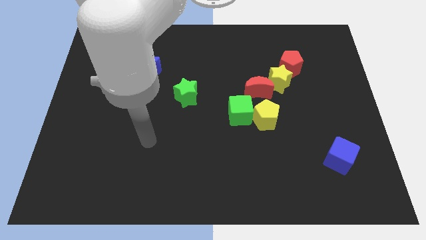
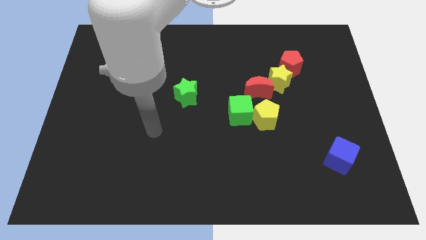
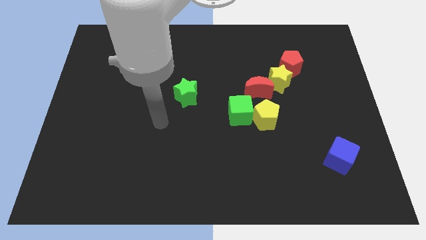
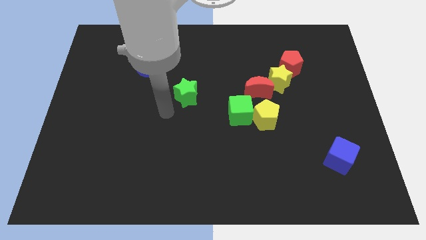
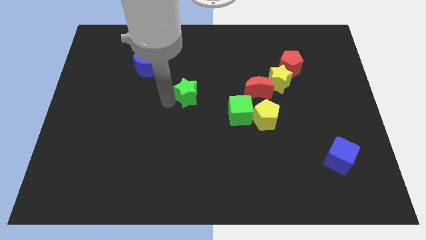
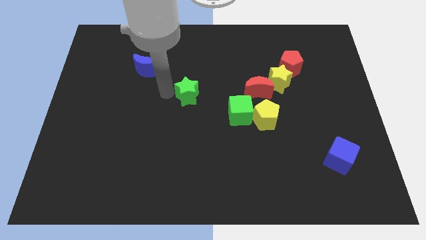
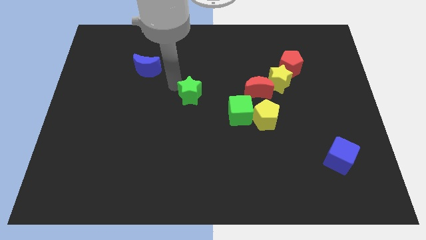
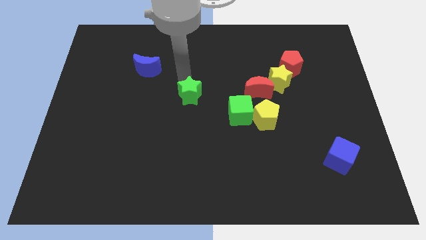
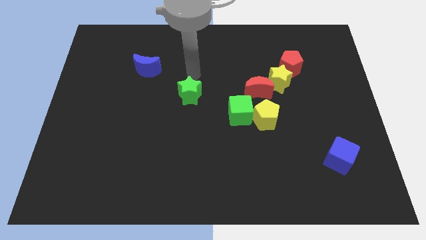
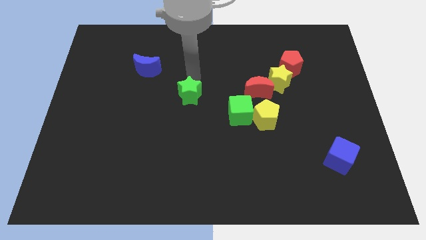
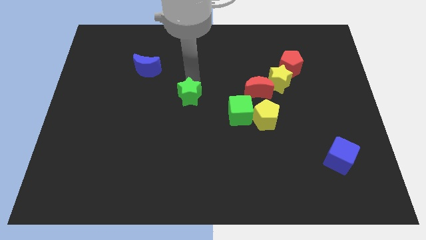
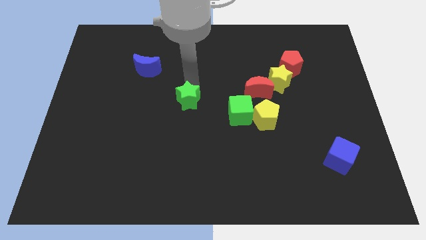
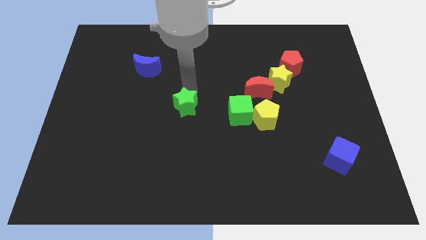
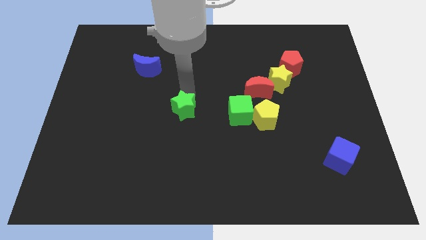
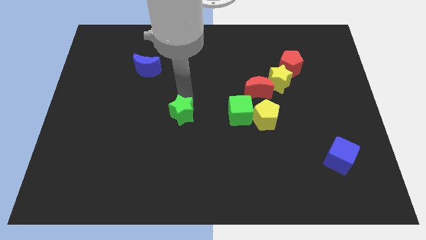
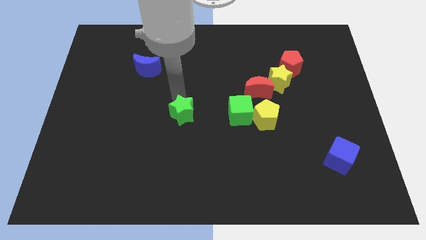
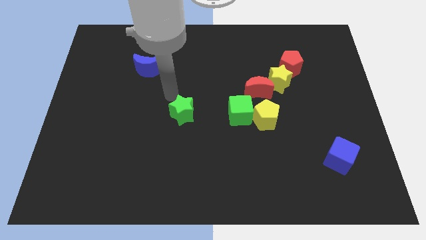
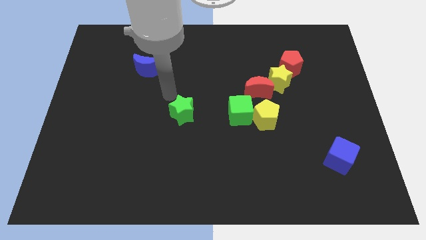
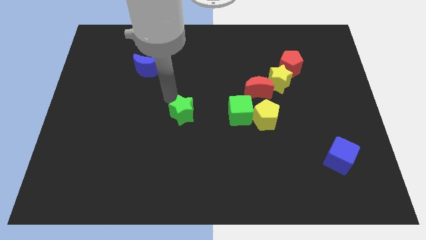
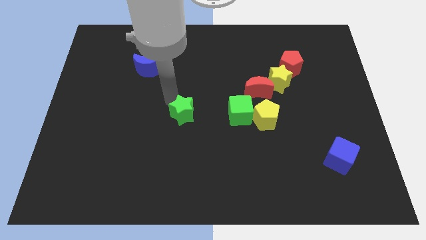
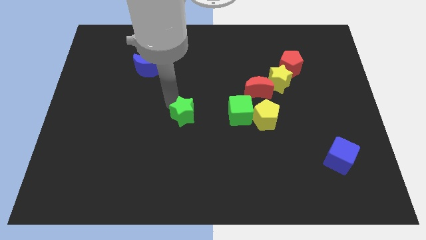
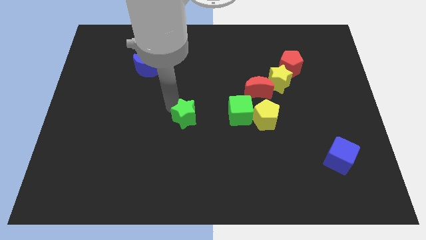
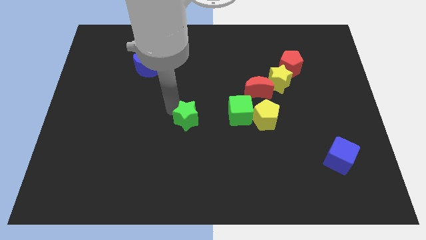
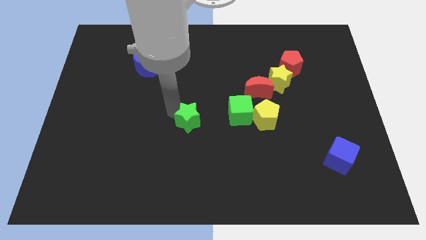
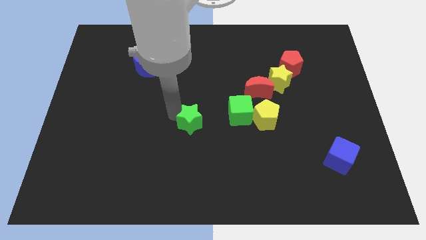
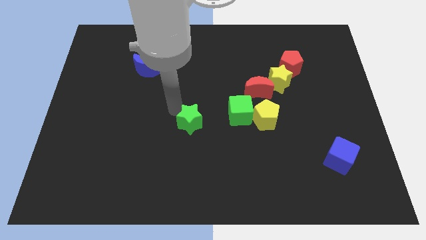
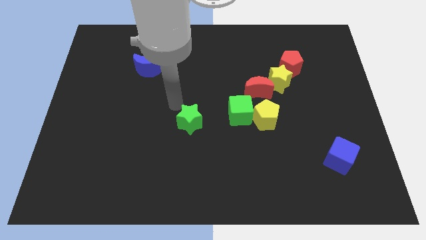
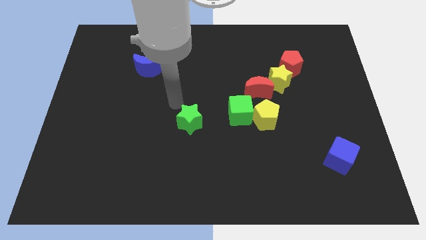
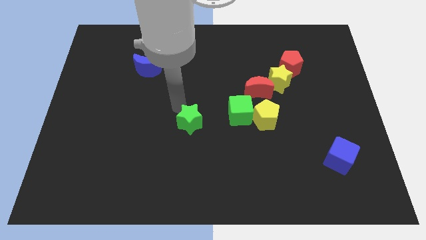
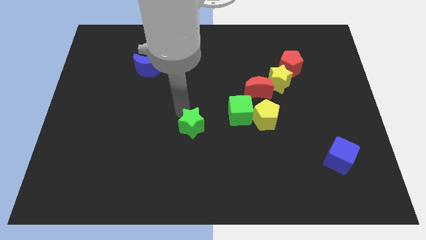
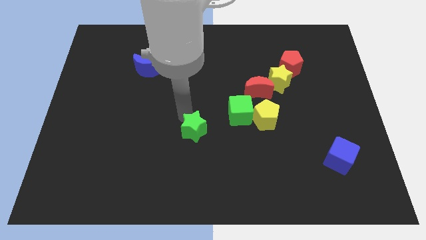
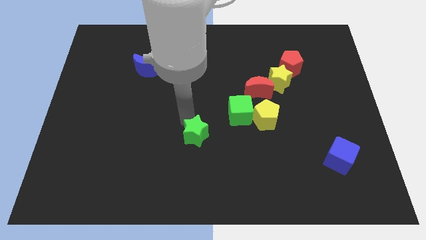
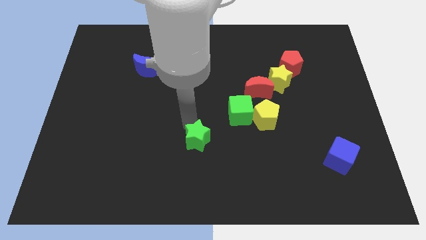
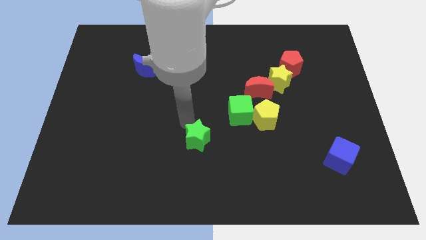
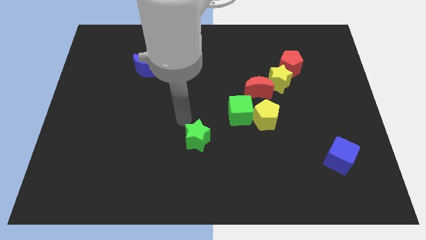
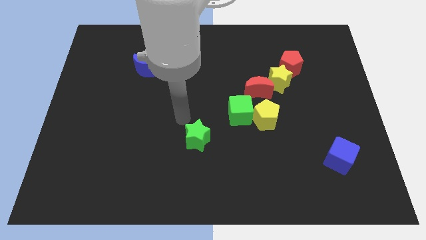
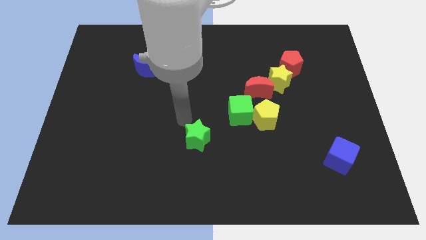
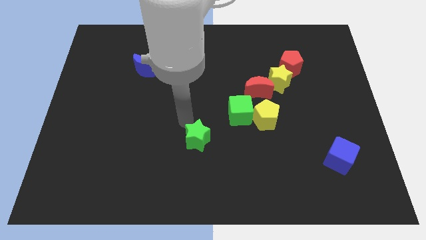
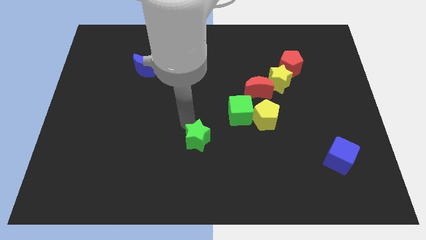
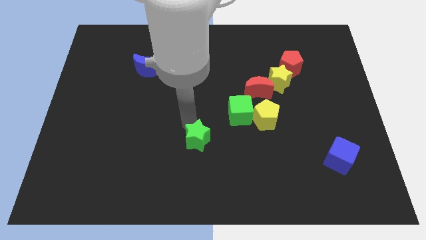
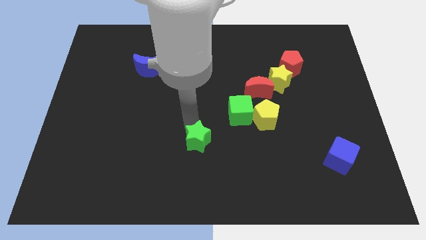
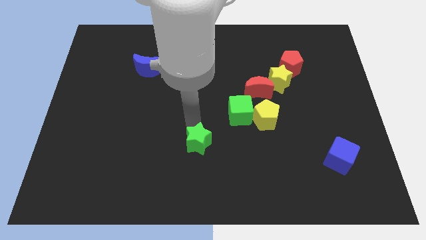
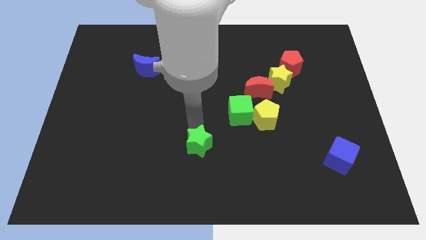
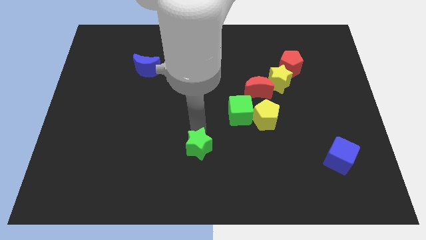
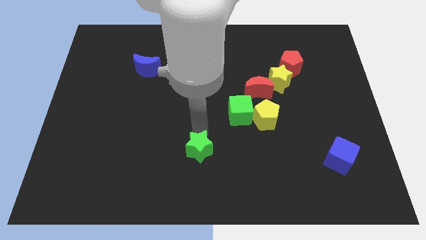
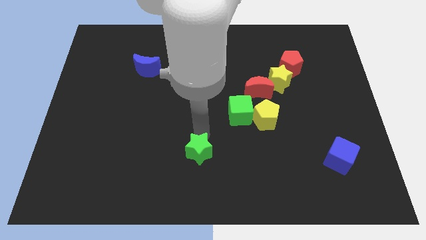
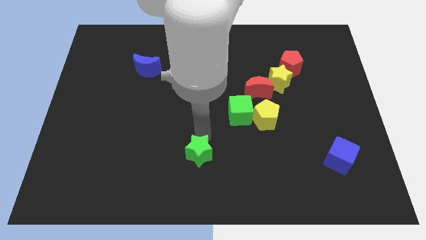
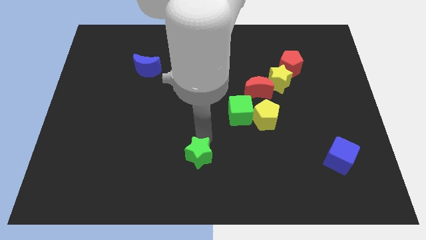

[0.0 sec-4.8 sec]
push the green star to the bottom side

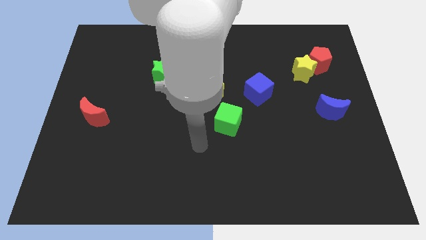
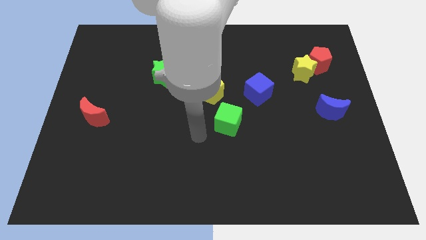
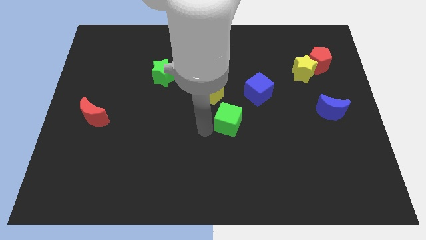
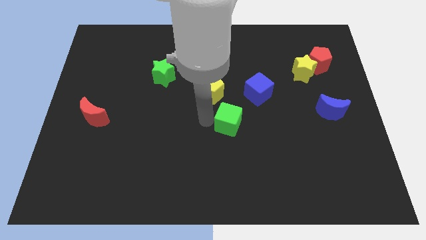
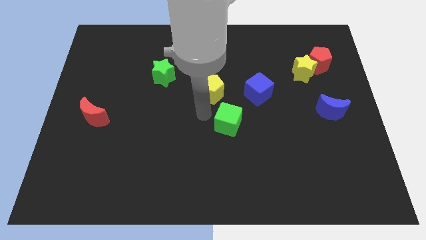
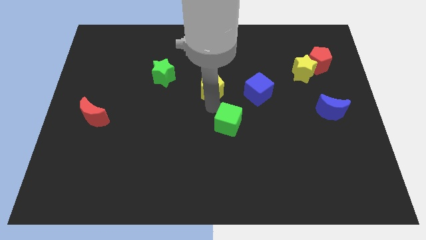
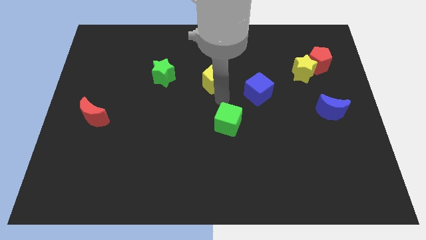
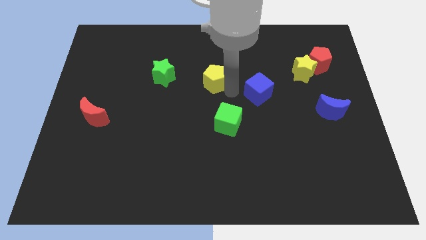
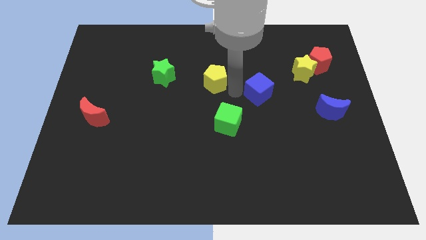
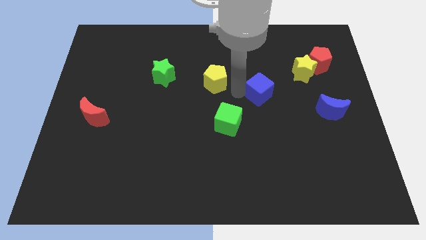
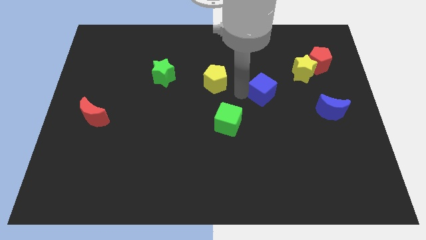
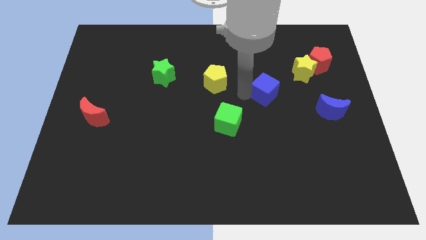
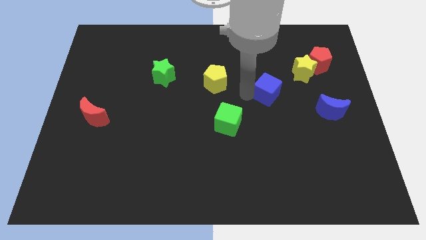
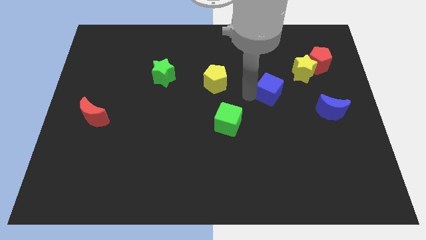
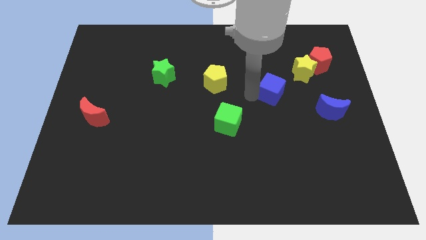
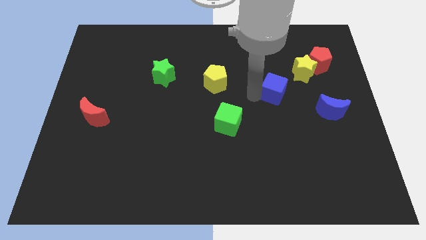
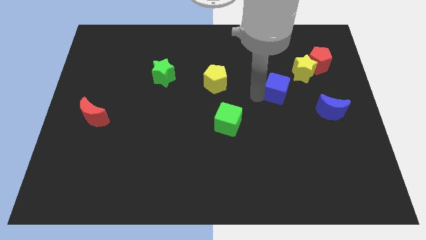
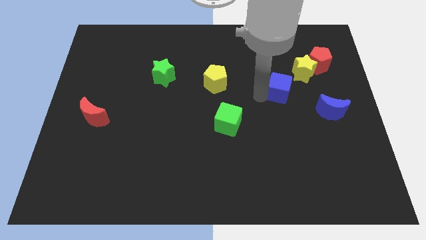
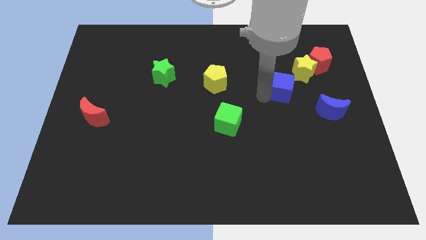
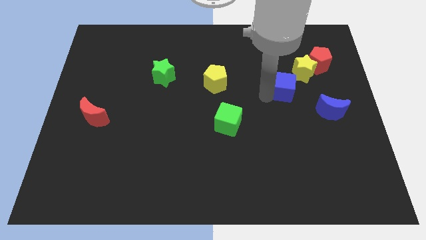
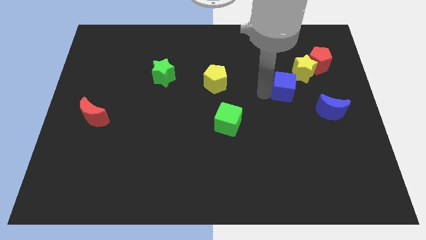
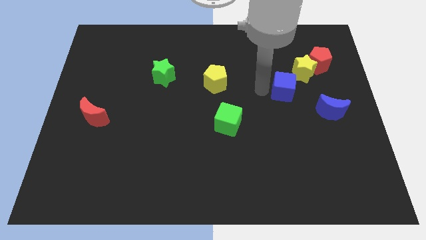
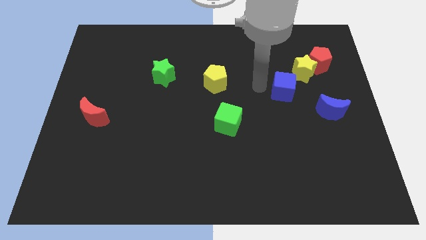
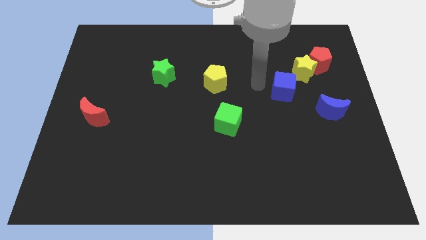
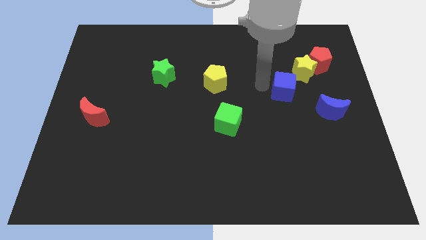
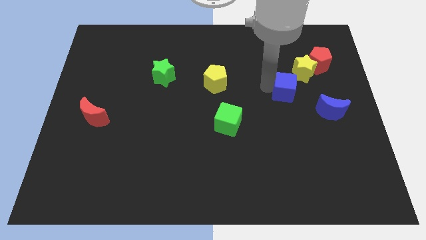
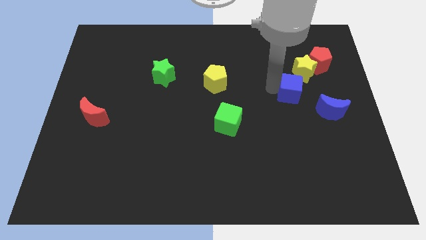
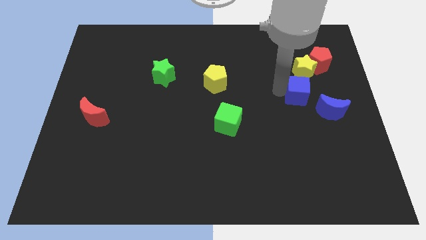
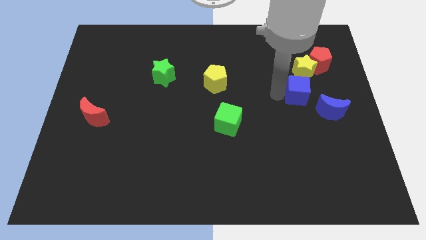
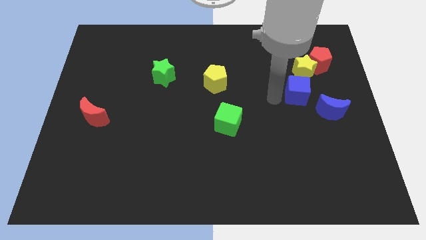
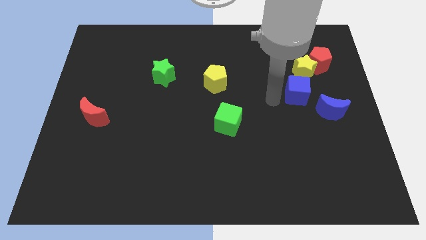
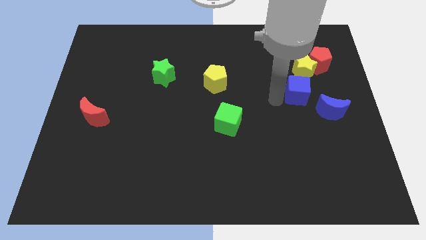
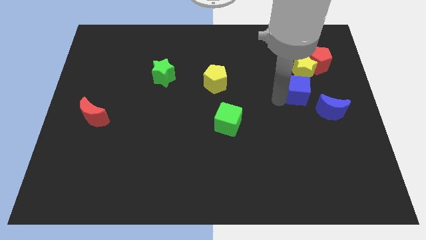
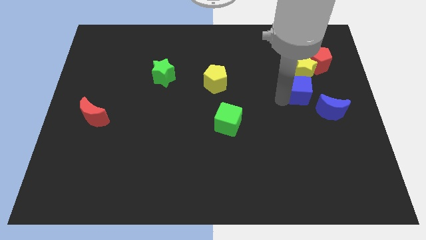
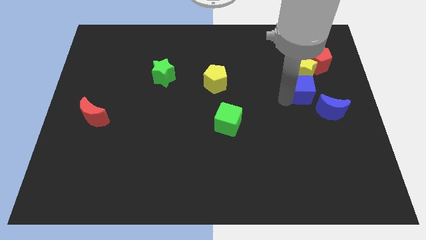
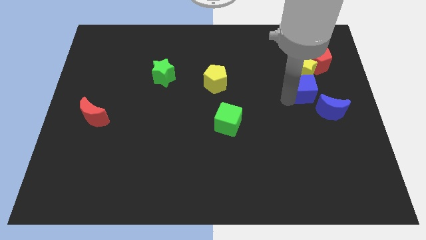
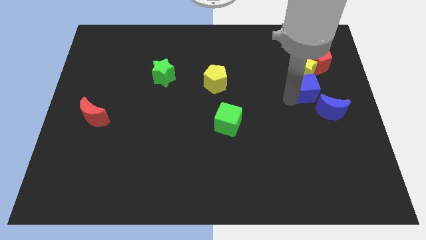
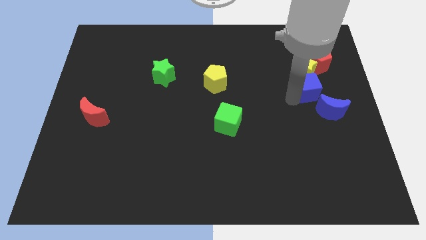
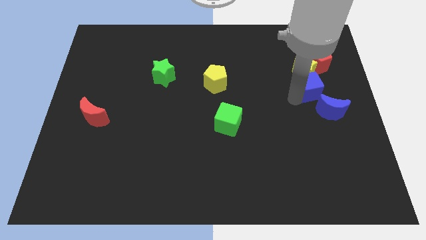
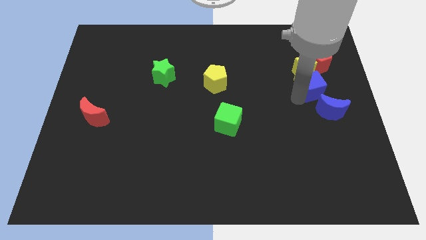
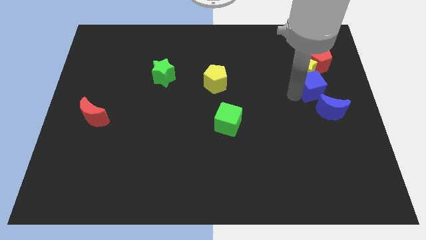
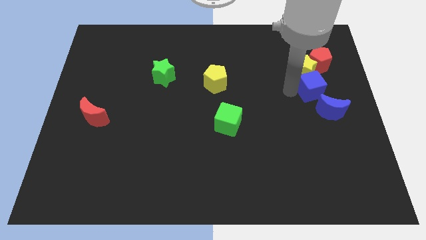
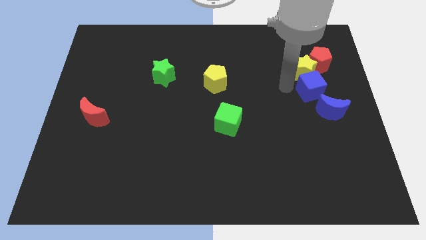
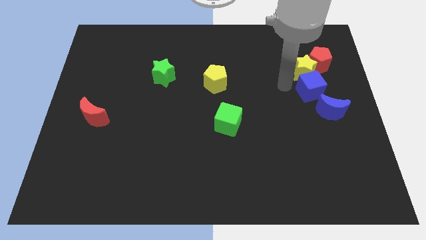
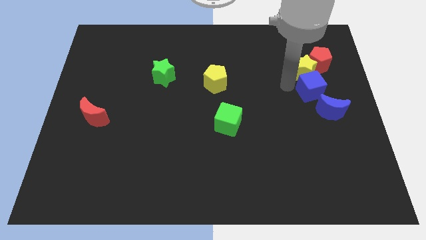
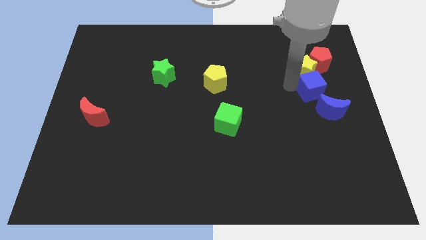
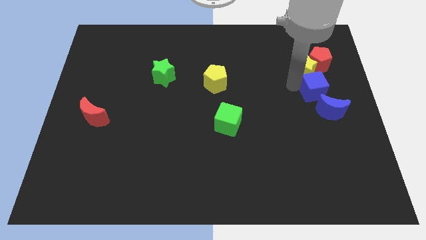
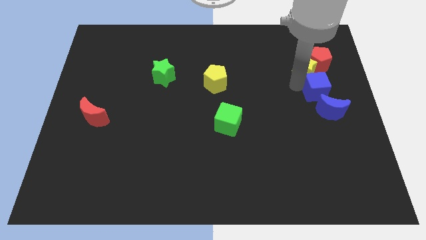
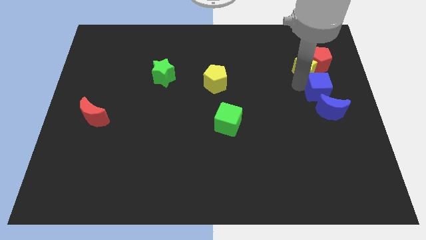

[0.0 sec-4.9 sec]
slide the blue cube to the center right
